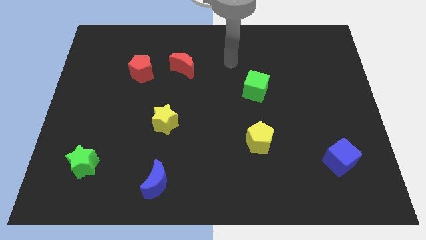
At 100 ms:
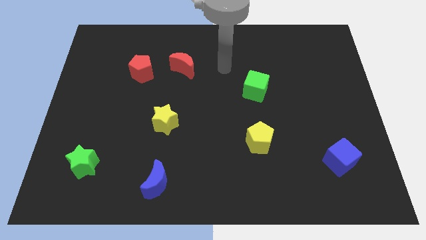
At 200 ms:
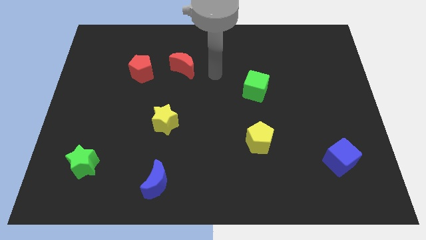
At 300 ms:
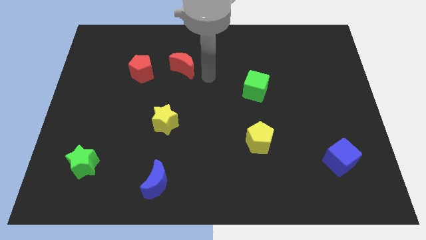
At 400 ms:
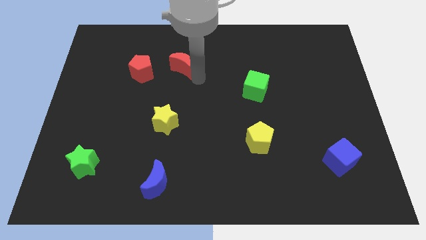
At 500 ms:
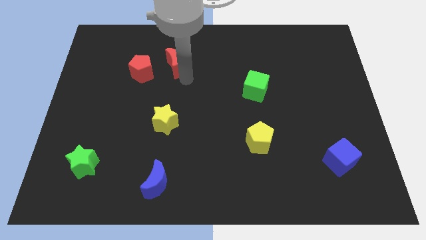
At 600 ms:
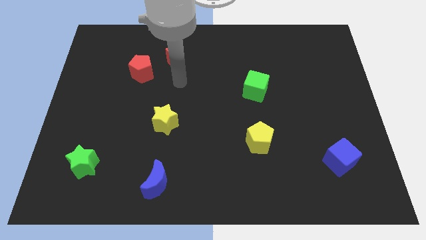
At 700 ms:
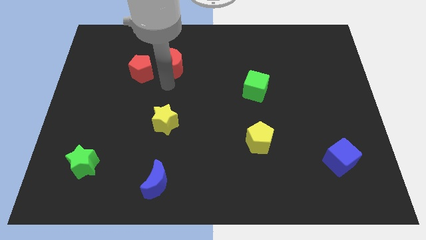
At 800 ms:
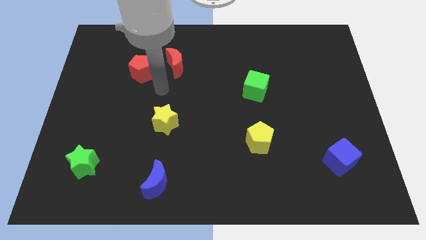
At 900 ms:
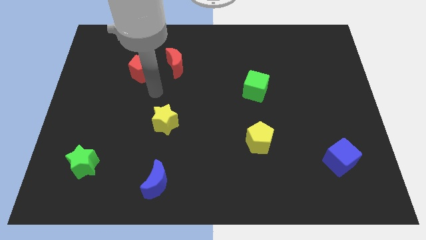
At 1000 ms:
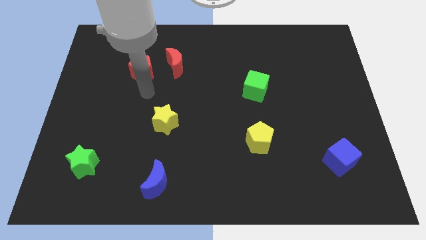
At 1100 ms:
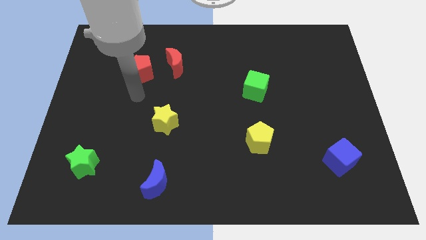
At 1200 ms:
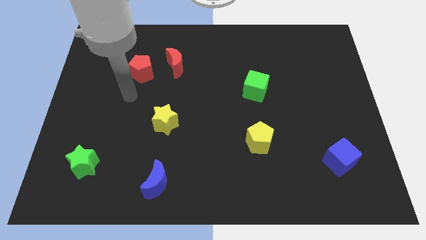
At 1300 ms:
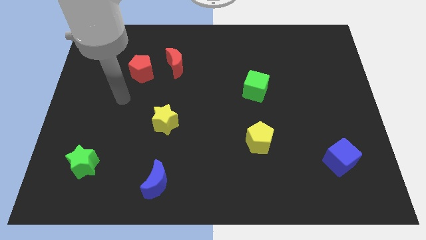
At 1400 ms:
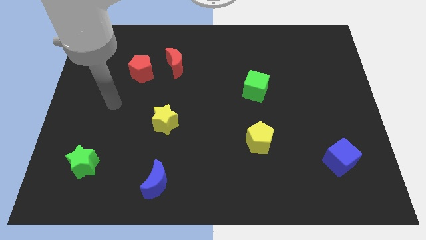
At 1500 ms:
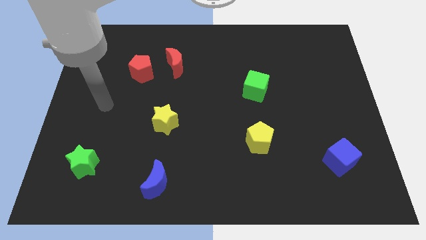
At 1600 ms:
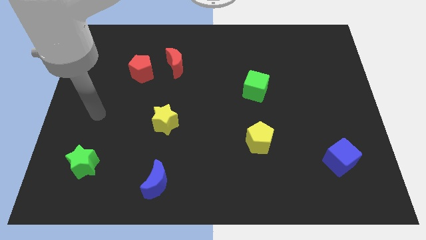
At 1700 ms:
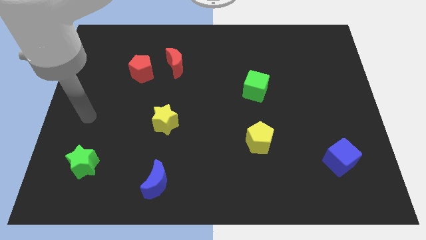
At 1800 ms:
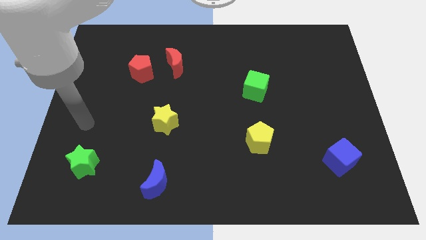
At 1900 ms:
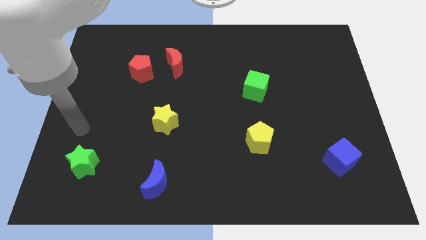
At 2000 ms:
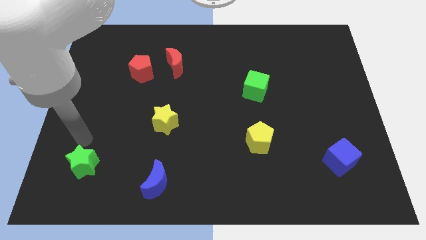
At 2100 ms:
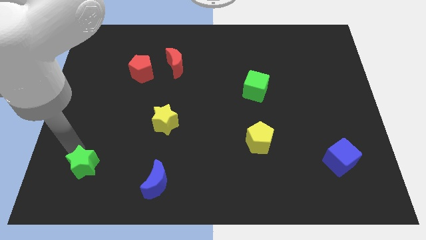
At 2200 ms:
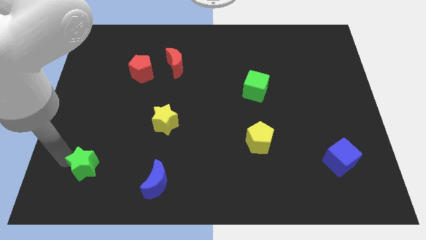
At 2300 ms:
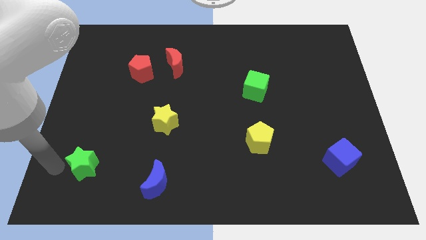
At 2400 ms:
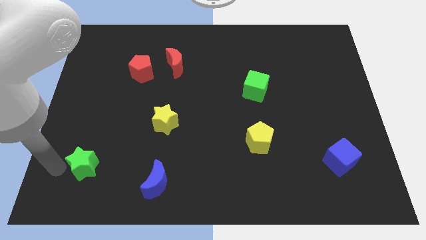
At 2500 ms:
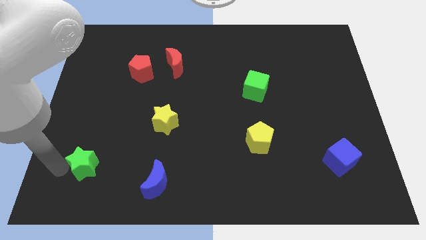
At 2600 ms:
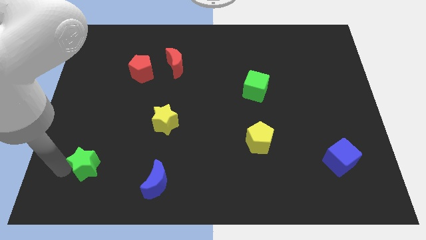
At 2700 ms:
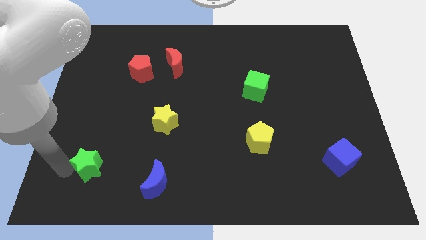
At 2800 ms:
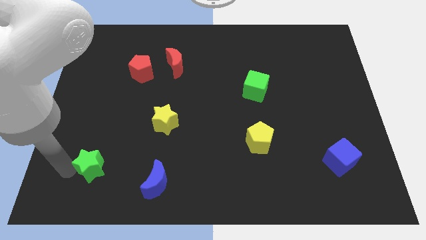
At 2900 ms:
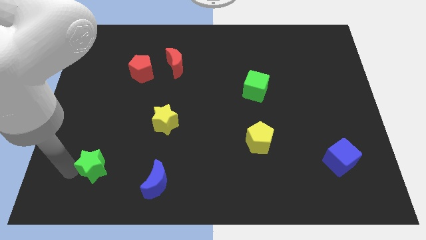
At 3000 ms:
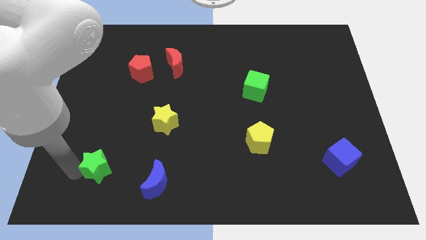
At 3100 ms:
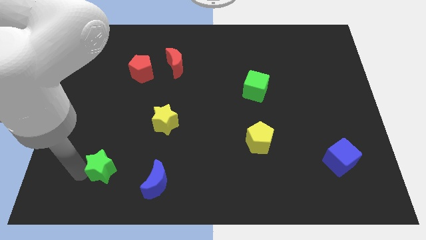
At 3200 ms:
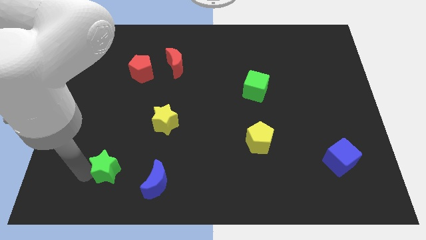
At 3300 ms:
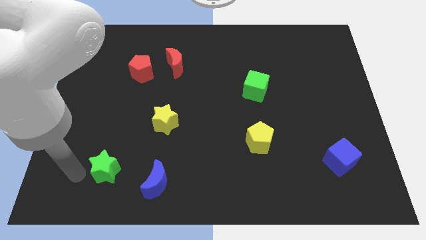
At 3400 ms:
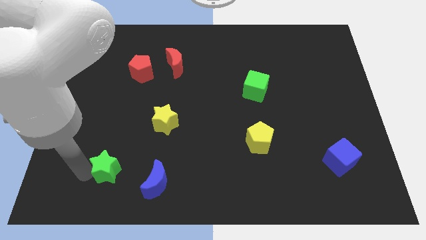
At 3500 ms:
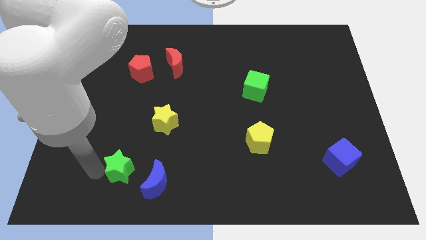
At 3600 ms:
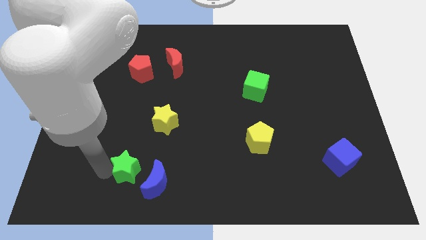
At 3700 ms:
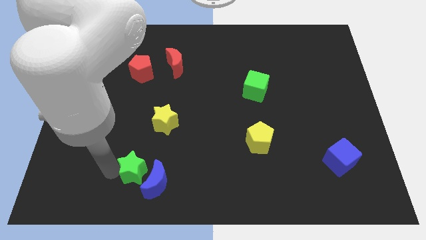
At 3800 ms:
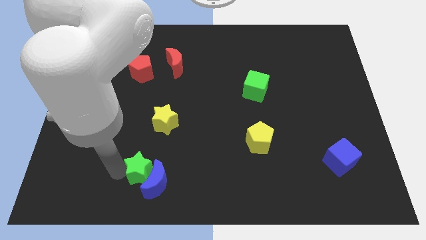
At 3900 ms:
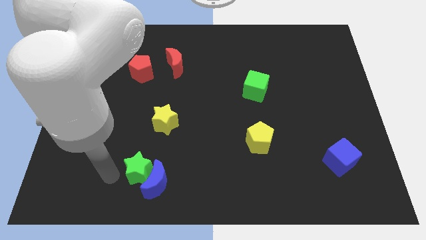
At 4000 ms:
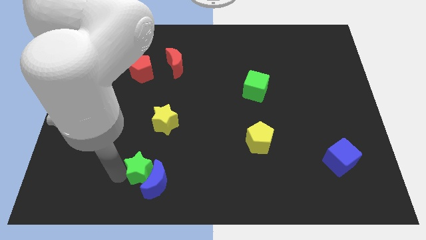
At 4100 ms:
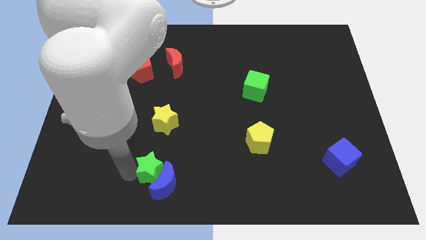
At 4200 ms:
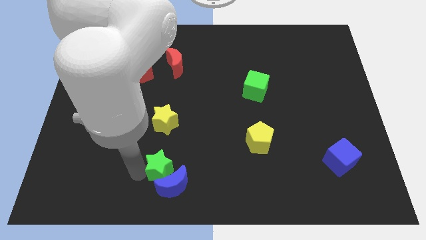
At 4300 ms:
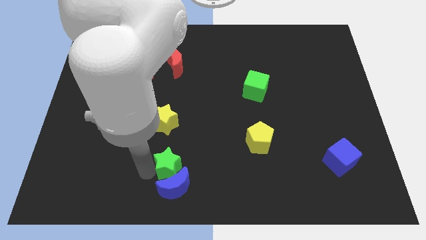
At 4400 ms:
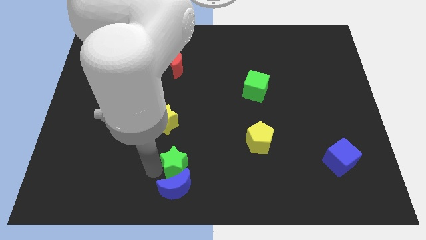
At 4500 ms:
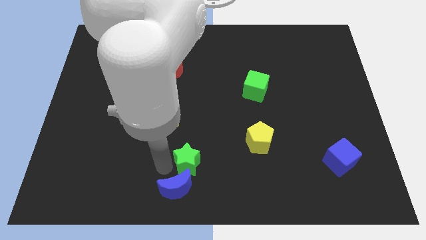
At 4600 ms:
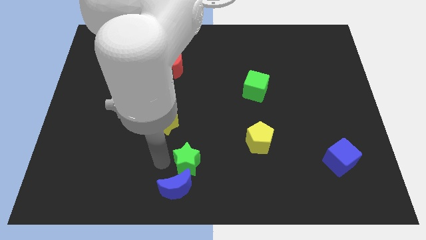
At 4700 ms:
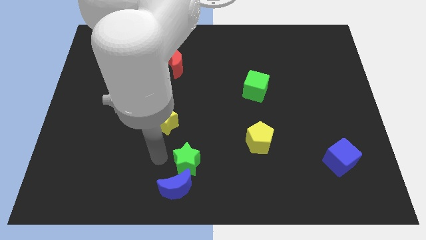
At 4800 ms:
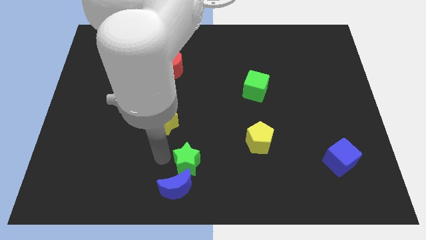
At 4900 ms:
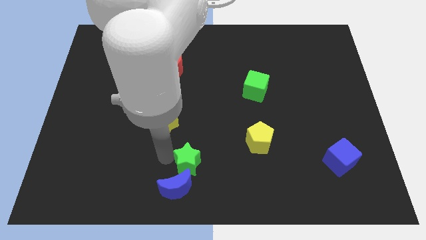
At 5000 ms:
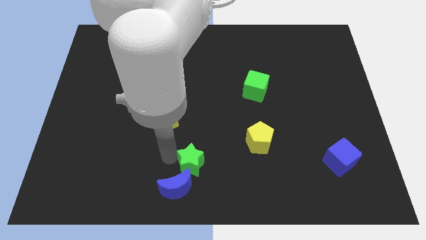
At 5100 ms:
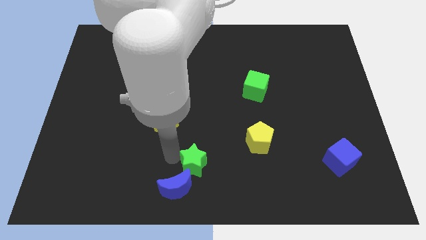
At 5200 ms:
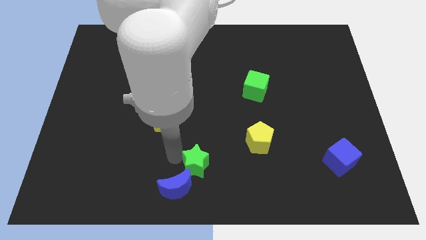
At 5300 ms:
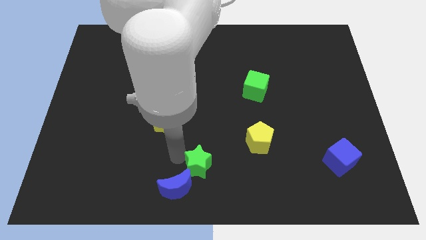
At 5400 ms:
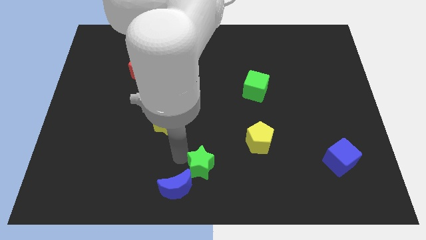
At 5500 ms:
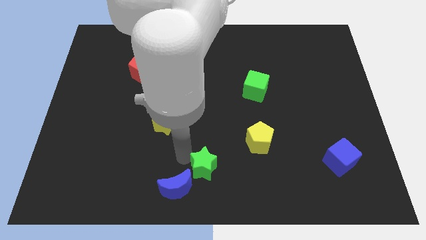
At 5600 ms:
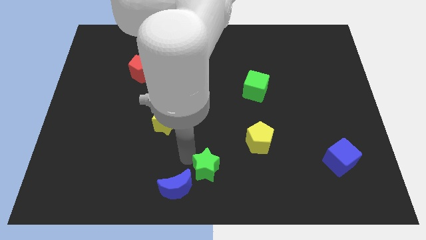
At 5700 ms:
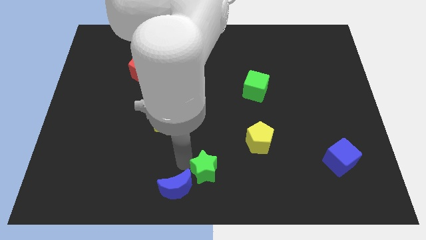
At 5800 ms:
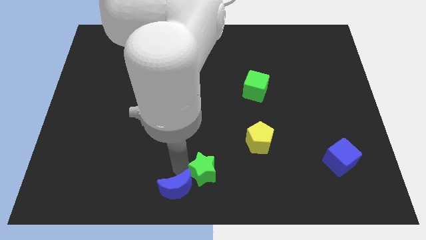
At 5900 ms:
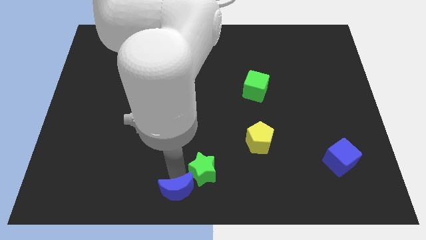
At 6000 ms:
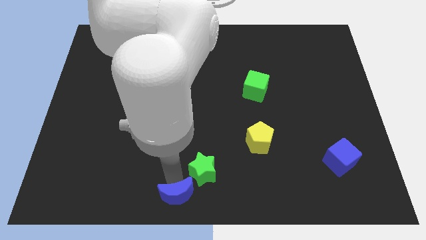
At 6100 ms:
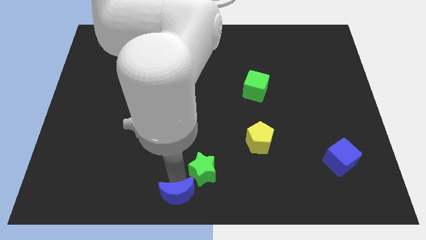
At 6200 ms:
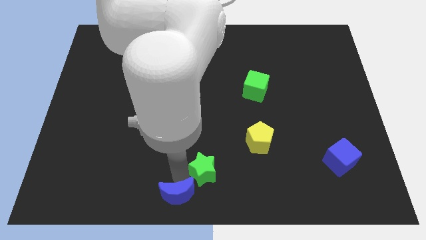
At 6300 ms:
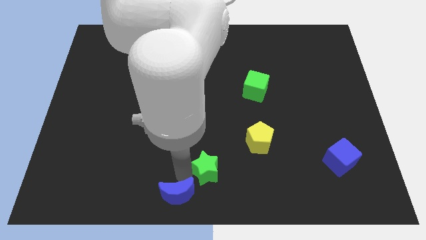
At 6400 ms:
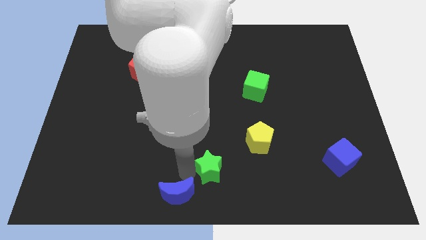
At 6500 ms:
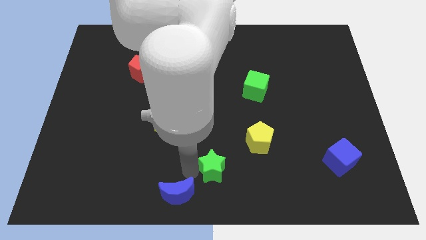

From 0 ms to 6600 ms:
slide the green star diagonally down and to the left of the yellow pentagon

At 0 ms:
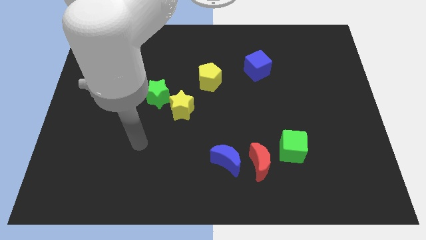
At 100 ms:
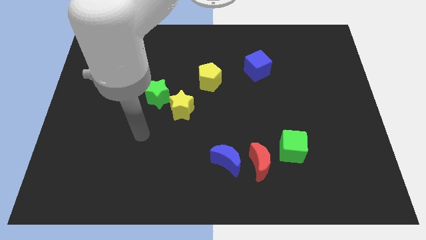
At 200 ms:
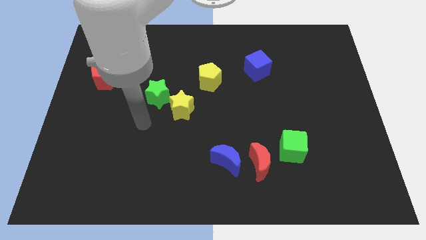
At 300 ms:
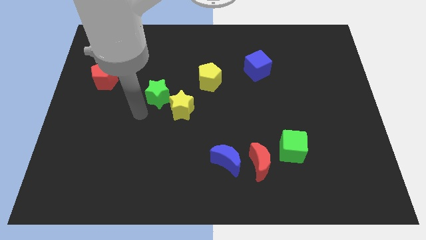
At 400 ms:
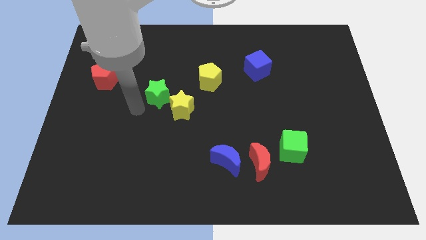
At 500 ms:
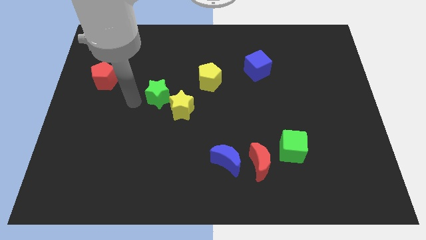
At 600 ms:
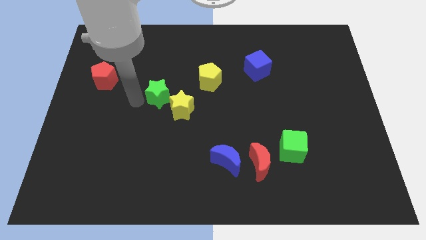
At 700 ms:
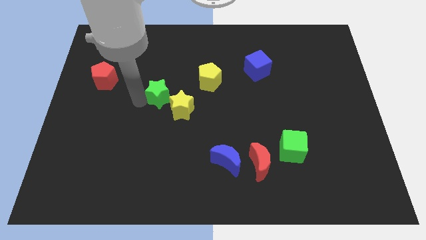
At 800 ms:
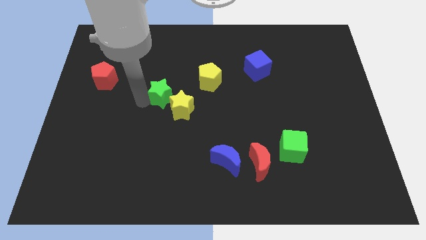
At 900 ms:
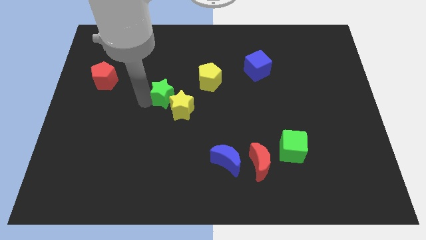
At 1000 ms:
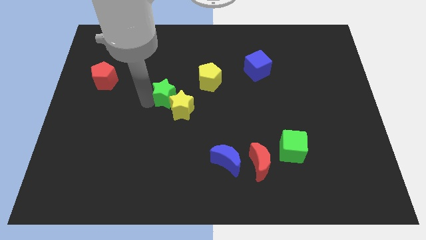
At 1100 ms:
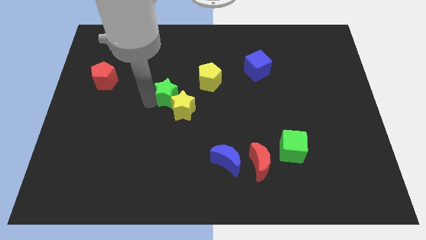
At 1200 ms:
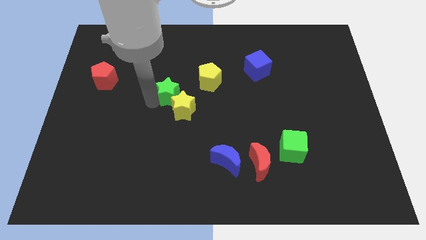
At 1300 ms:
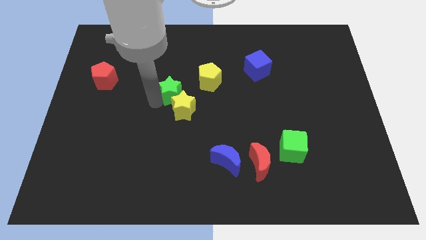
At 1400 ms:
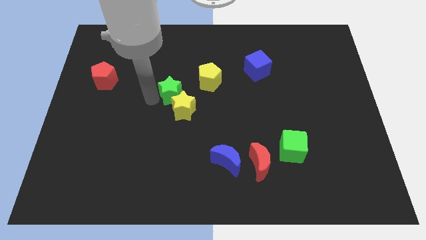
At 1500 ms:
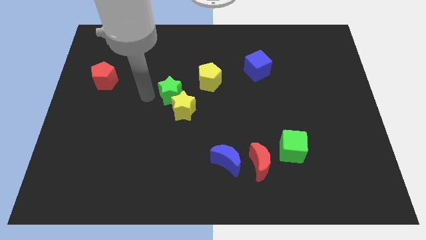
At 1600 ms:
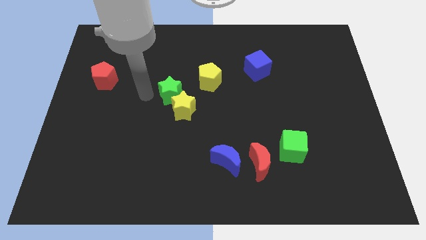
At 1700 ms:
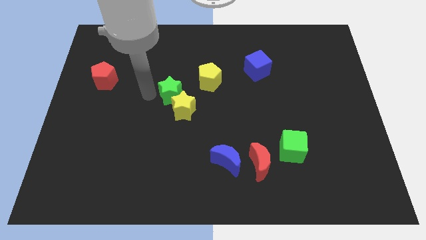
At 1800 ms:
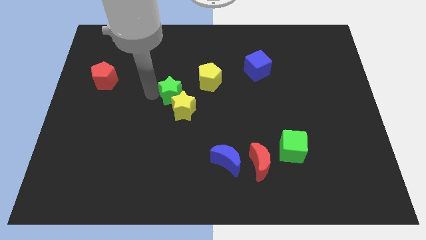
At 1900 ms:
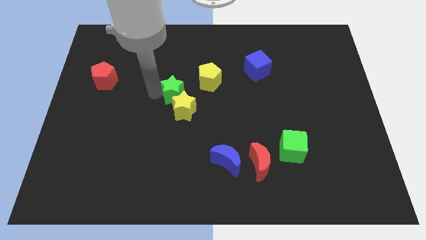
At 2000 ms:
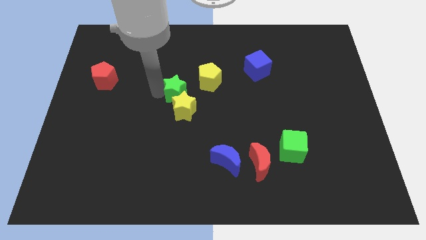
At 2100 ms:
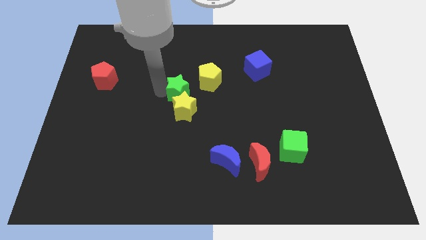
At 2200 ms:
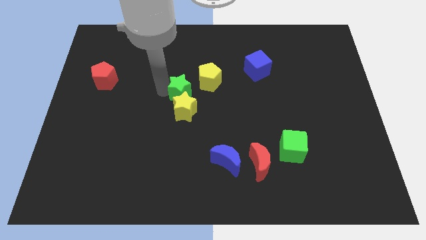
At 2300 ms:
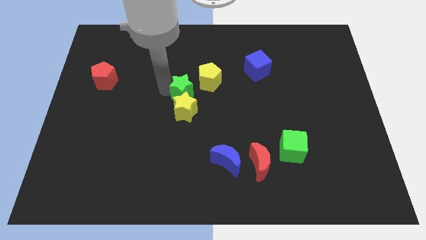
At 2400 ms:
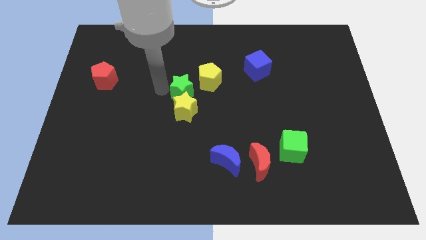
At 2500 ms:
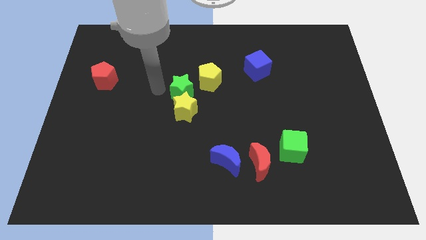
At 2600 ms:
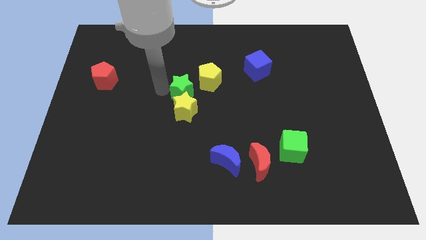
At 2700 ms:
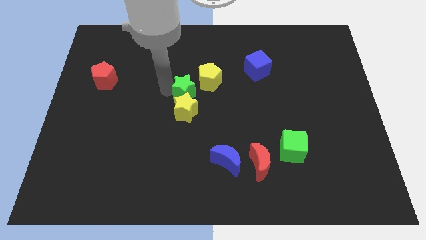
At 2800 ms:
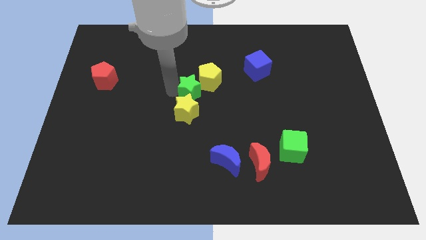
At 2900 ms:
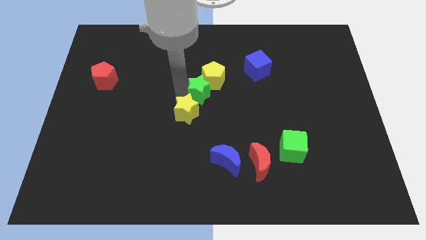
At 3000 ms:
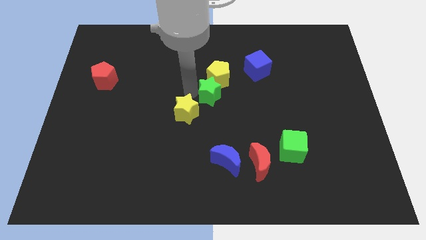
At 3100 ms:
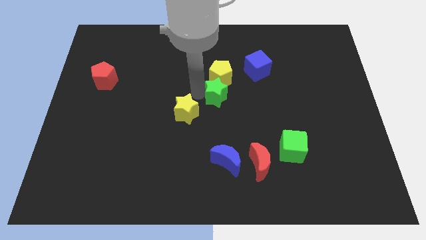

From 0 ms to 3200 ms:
put the green star diagonally down and to the right of the yellow pentagon
